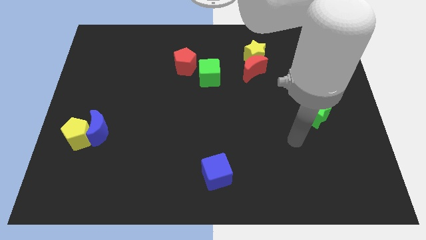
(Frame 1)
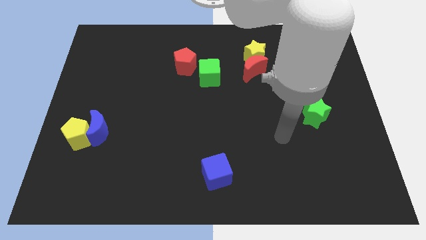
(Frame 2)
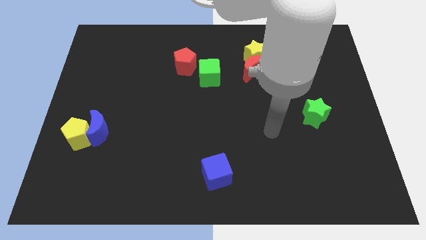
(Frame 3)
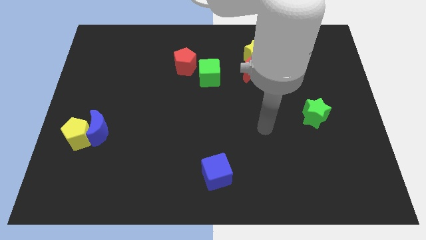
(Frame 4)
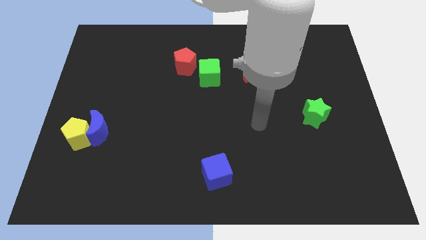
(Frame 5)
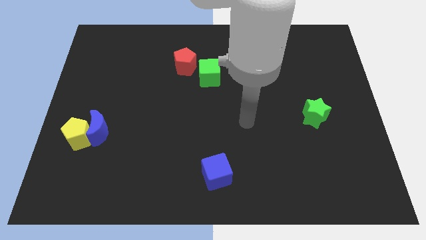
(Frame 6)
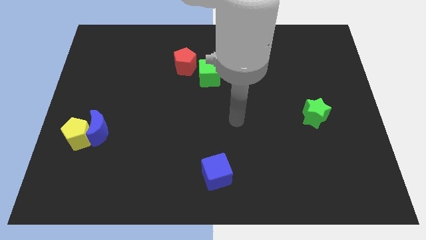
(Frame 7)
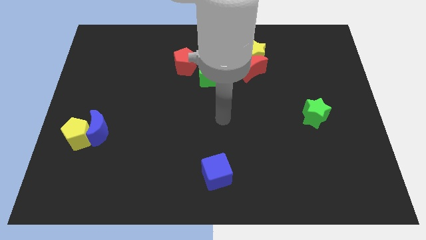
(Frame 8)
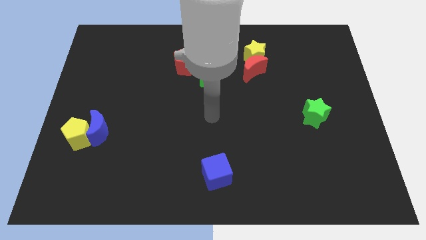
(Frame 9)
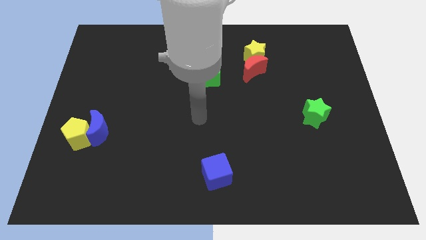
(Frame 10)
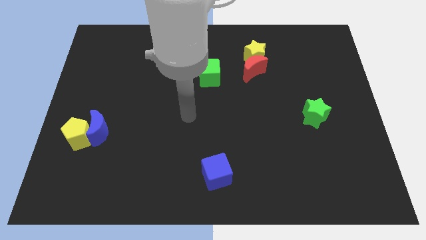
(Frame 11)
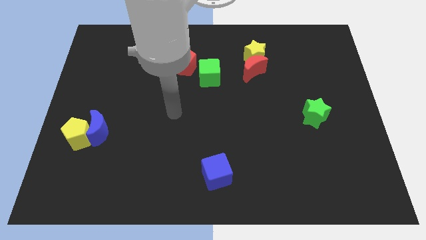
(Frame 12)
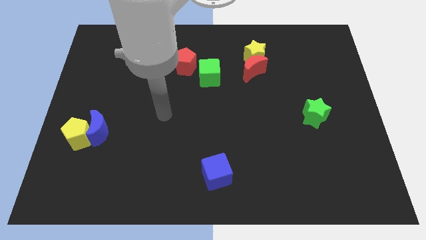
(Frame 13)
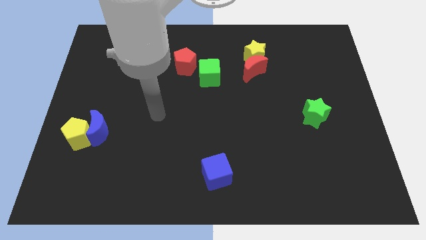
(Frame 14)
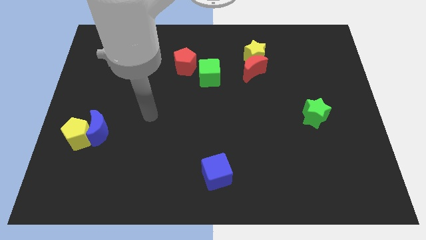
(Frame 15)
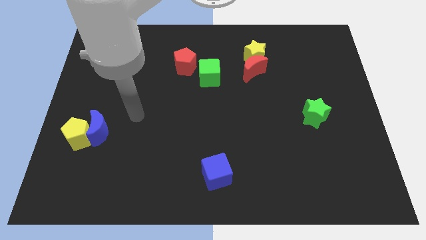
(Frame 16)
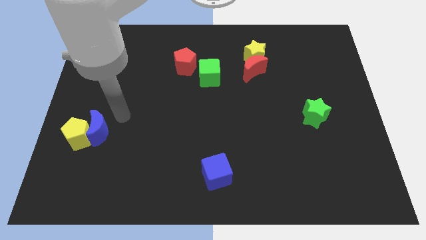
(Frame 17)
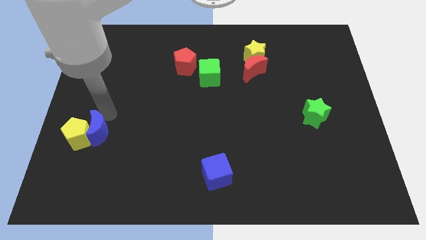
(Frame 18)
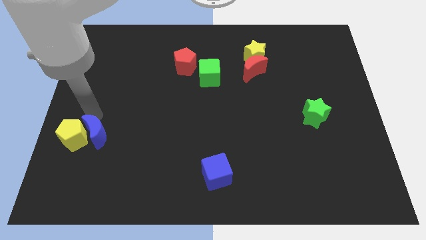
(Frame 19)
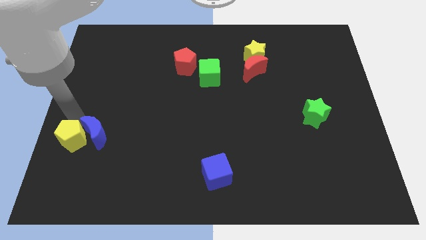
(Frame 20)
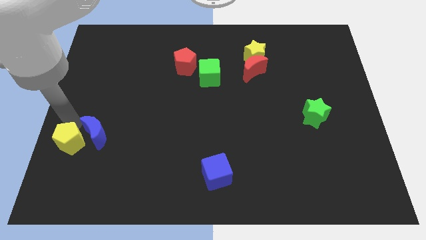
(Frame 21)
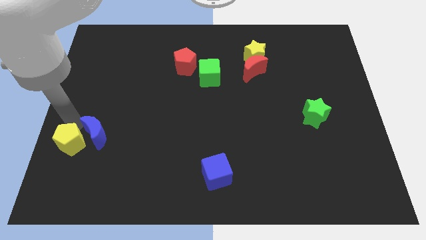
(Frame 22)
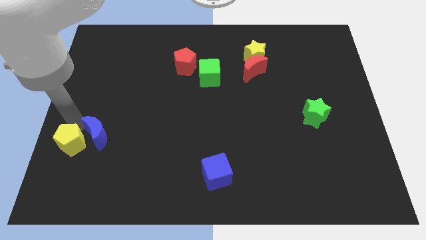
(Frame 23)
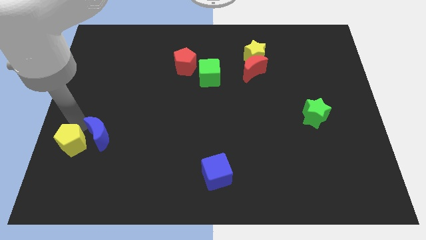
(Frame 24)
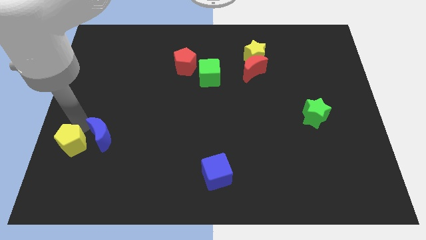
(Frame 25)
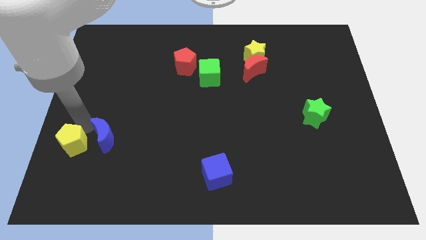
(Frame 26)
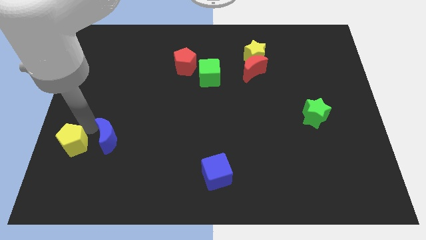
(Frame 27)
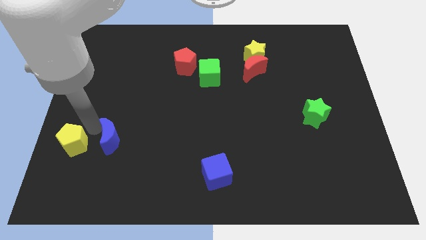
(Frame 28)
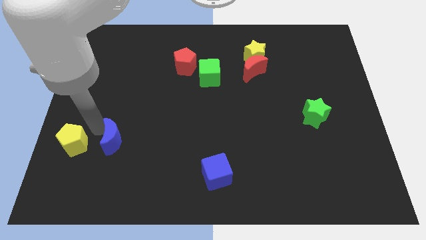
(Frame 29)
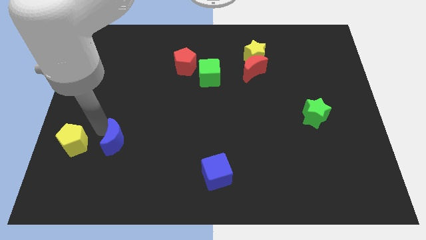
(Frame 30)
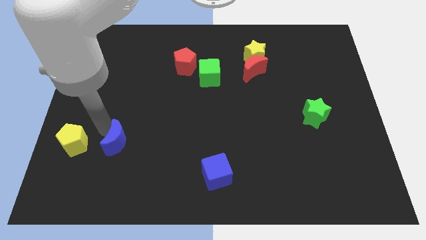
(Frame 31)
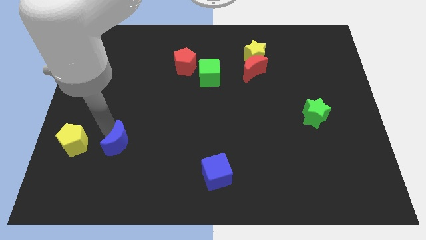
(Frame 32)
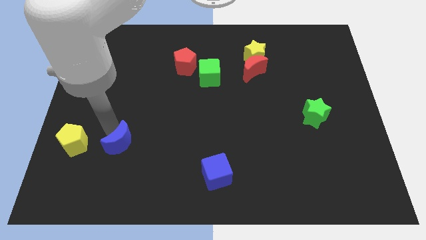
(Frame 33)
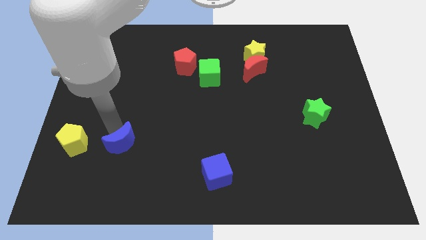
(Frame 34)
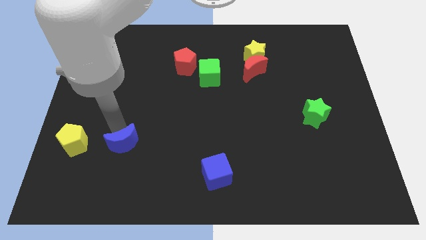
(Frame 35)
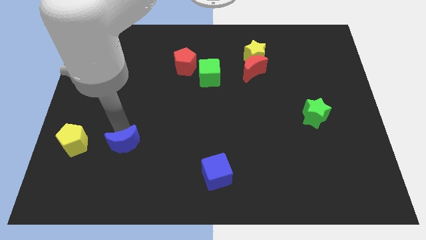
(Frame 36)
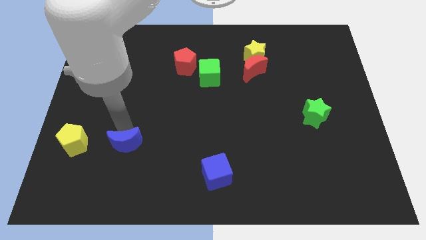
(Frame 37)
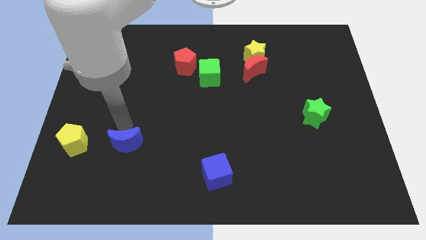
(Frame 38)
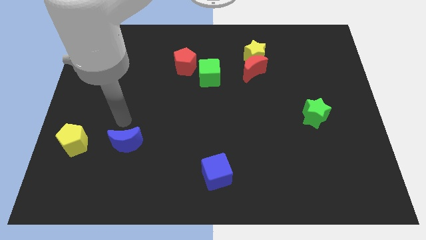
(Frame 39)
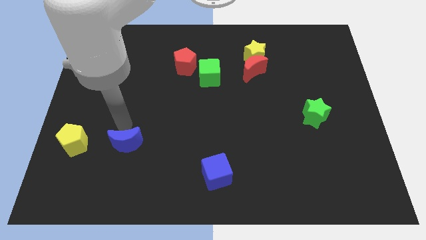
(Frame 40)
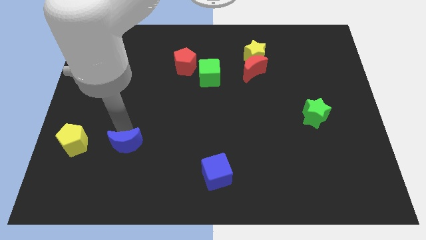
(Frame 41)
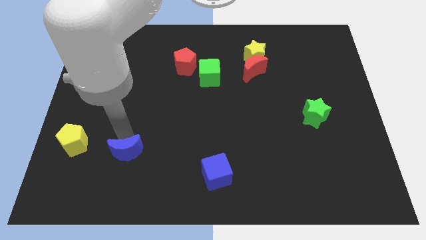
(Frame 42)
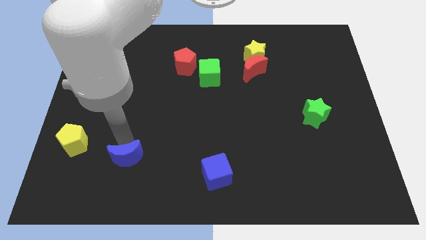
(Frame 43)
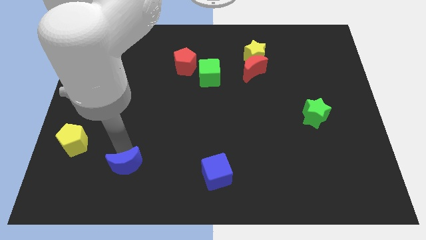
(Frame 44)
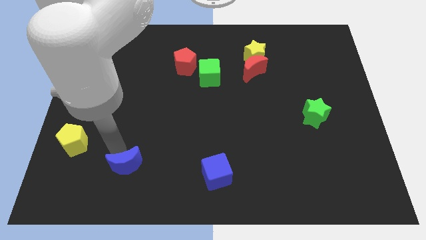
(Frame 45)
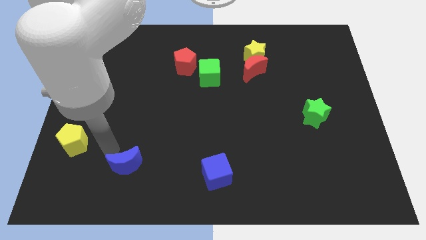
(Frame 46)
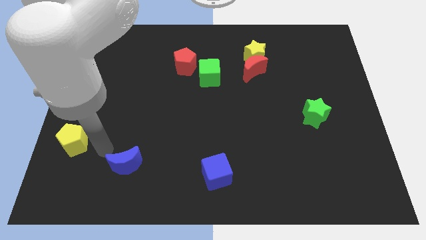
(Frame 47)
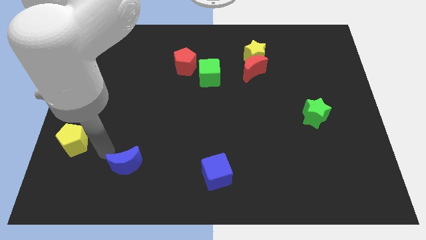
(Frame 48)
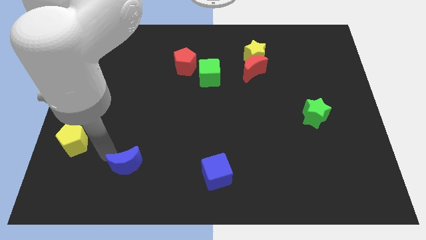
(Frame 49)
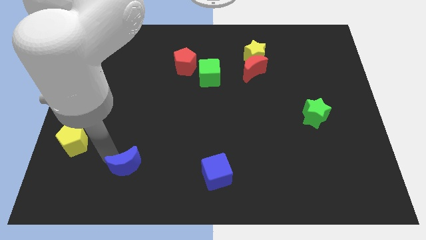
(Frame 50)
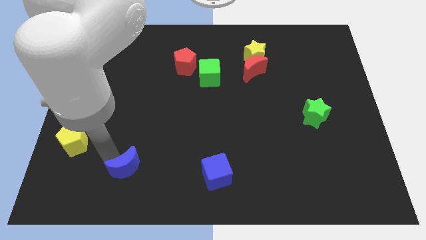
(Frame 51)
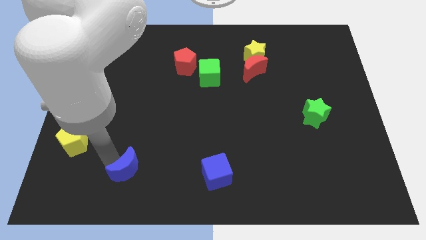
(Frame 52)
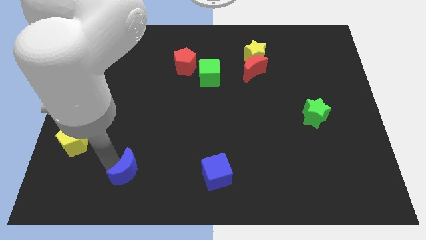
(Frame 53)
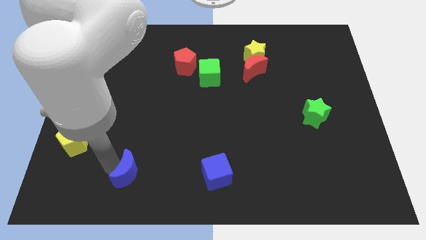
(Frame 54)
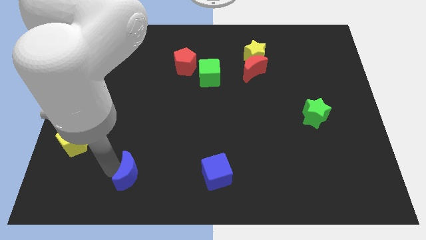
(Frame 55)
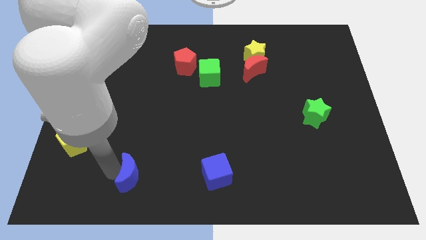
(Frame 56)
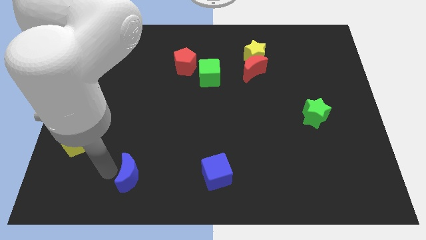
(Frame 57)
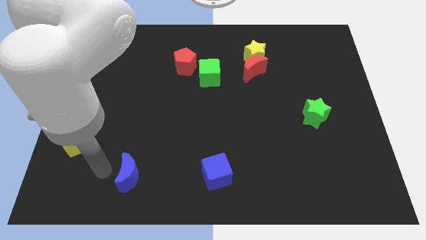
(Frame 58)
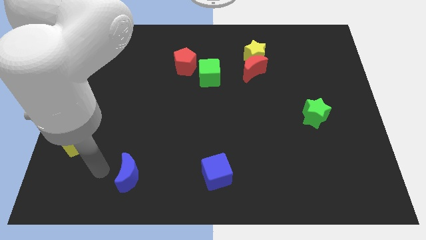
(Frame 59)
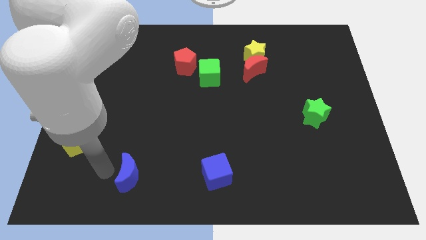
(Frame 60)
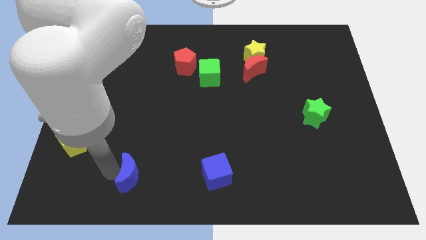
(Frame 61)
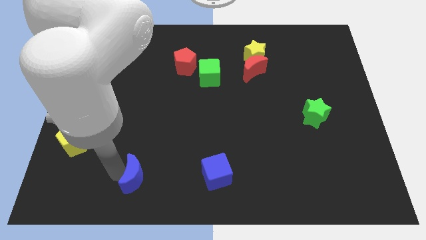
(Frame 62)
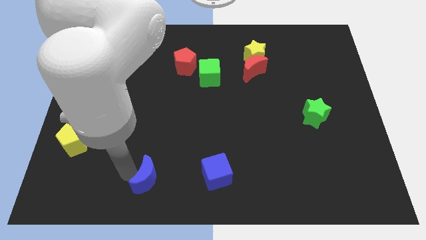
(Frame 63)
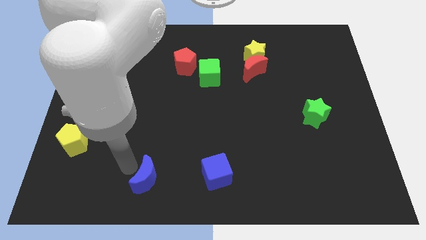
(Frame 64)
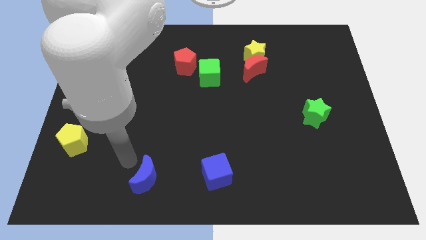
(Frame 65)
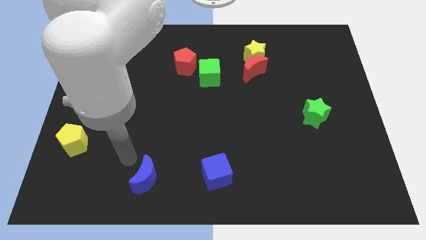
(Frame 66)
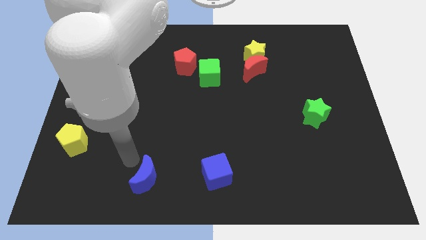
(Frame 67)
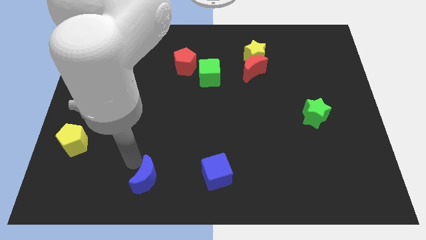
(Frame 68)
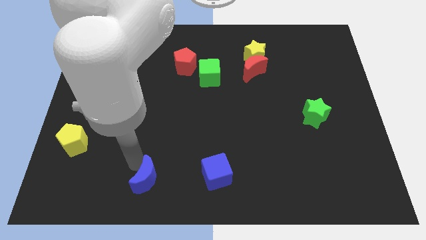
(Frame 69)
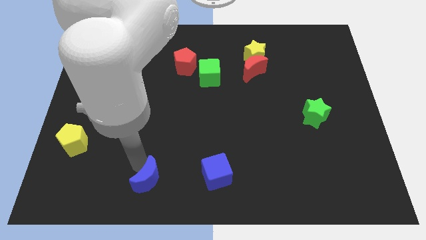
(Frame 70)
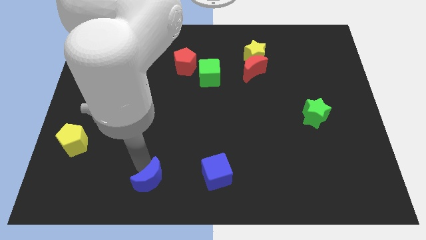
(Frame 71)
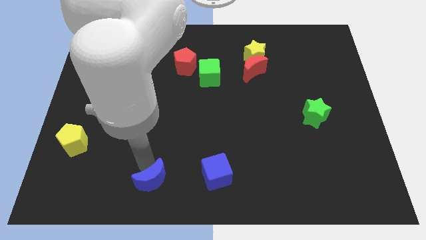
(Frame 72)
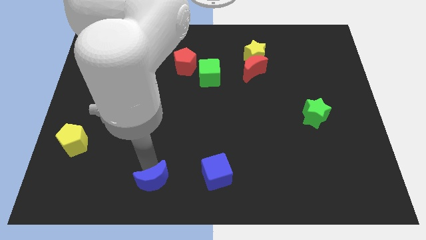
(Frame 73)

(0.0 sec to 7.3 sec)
put the blue moon to the bottom side
